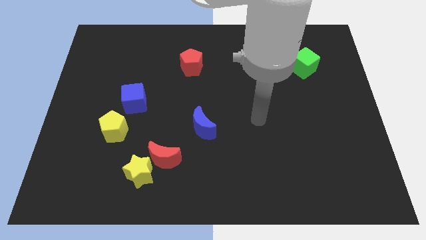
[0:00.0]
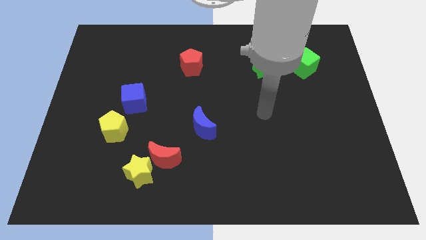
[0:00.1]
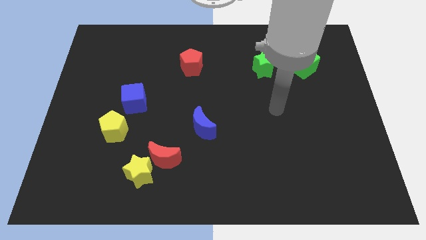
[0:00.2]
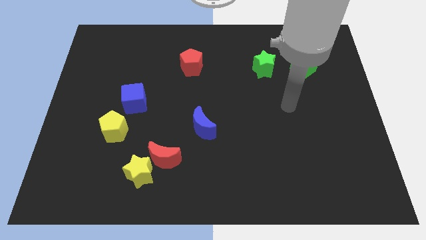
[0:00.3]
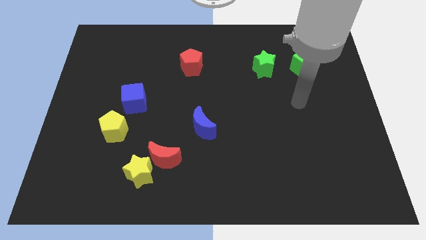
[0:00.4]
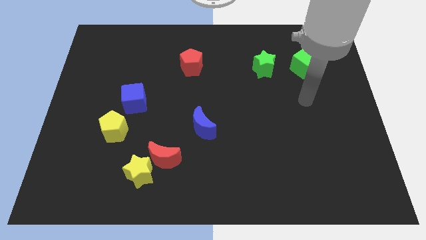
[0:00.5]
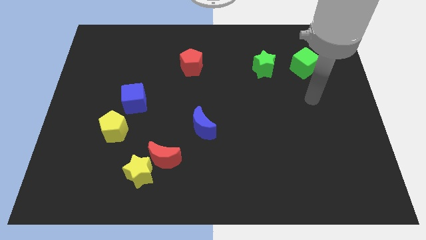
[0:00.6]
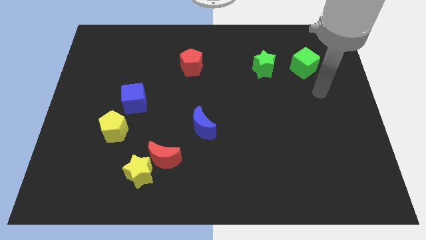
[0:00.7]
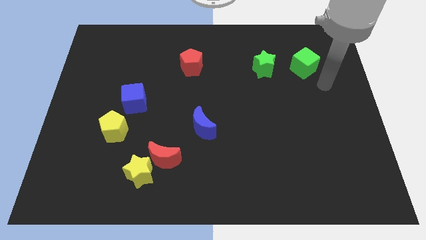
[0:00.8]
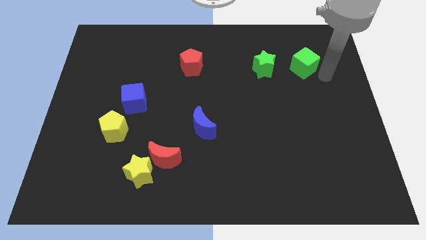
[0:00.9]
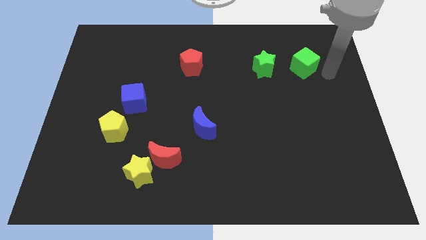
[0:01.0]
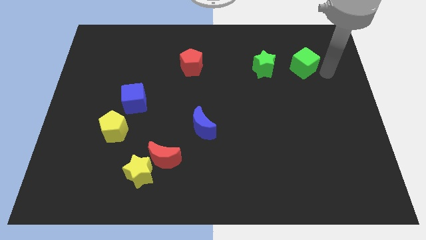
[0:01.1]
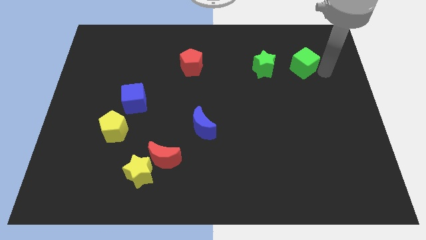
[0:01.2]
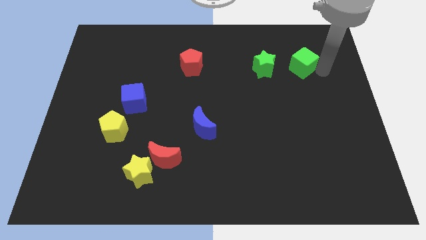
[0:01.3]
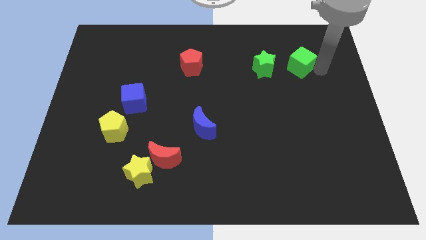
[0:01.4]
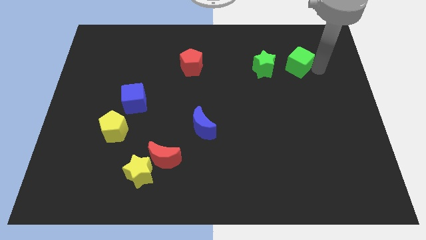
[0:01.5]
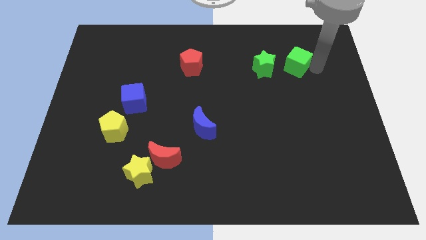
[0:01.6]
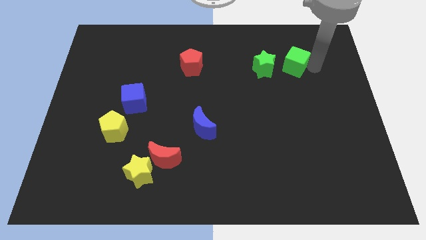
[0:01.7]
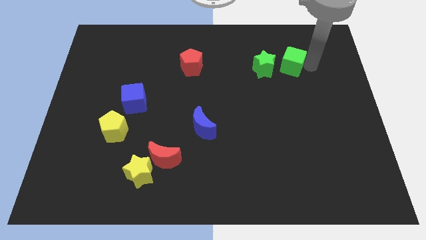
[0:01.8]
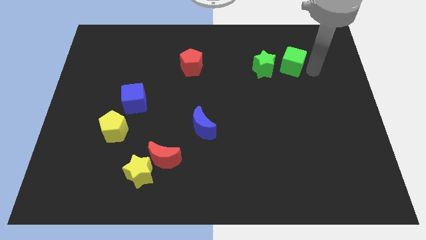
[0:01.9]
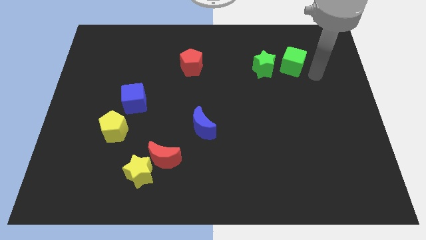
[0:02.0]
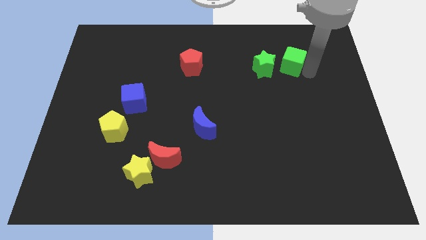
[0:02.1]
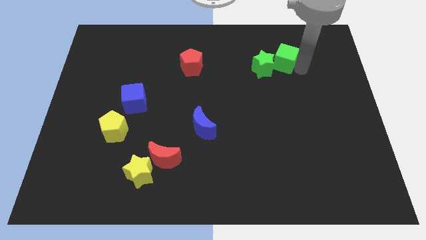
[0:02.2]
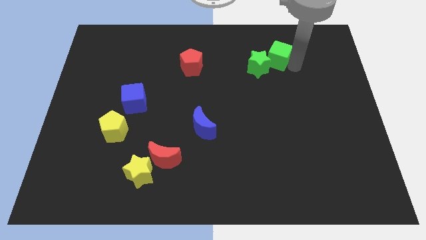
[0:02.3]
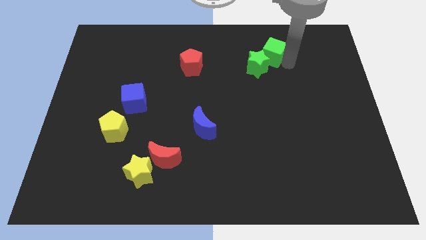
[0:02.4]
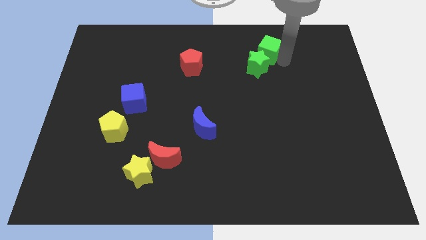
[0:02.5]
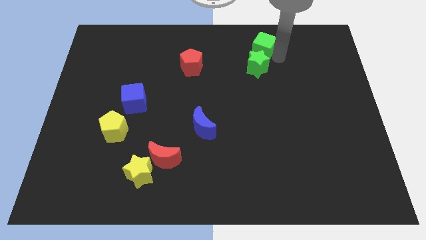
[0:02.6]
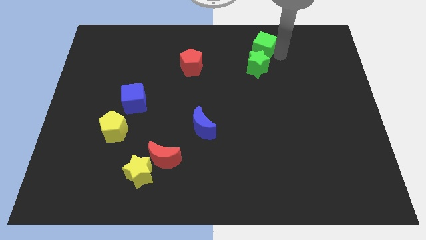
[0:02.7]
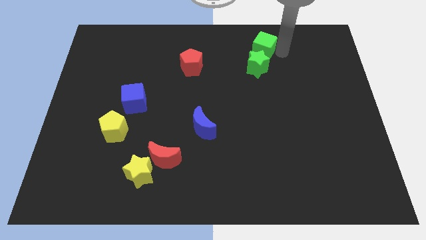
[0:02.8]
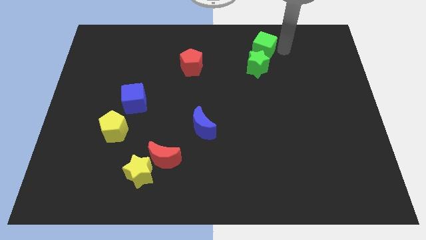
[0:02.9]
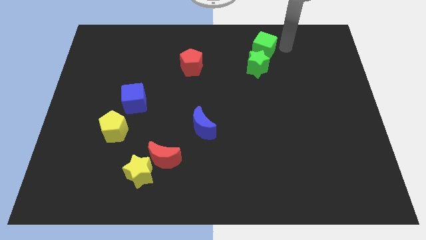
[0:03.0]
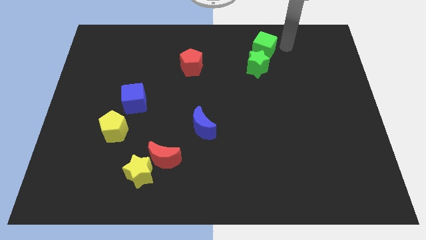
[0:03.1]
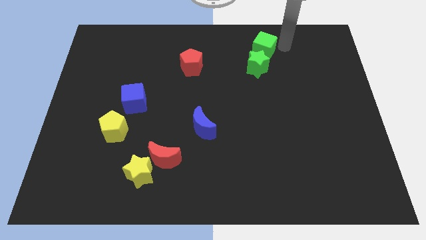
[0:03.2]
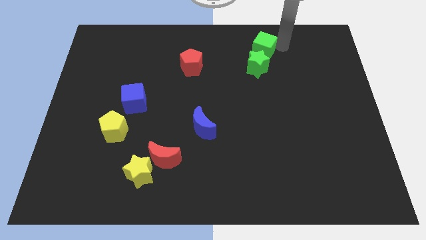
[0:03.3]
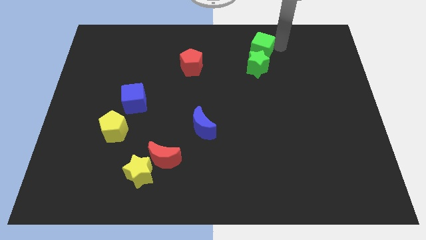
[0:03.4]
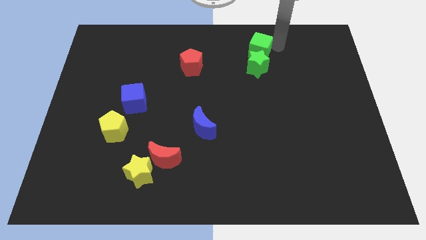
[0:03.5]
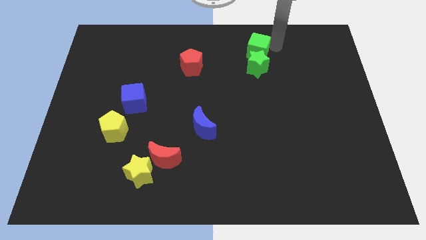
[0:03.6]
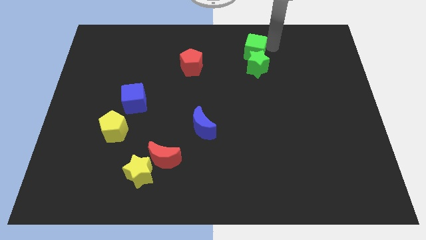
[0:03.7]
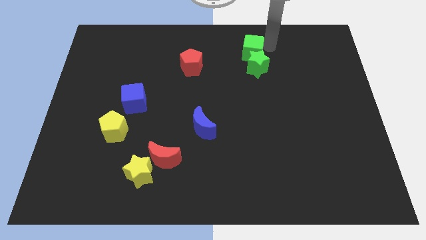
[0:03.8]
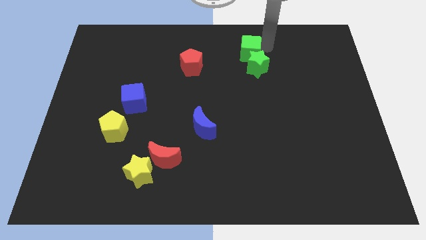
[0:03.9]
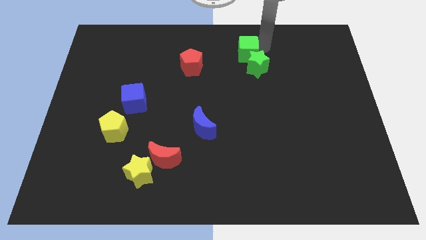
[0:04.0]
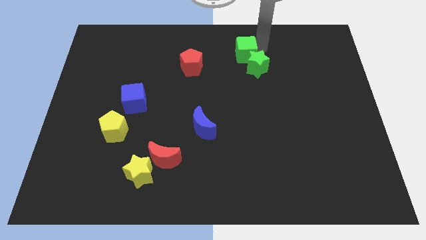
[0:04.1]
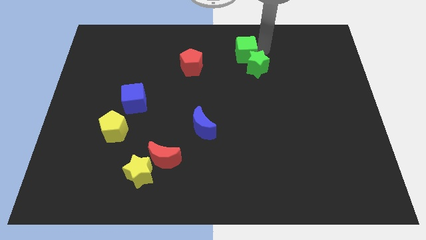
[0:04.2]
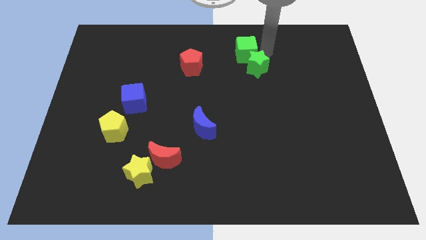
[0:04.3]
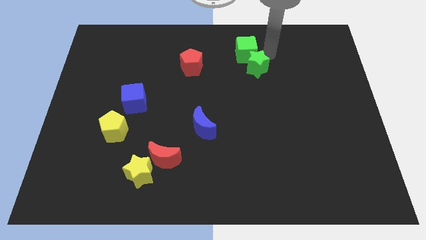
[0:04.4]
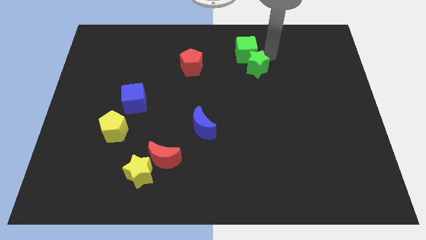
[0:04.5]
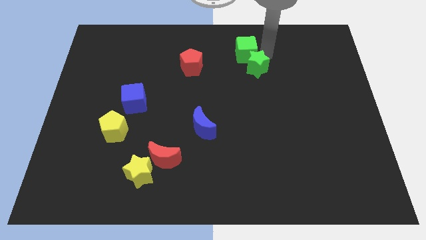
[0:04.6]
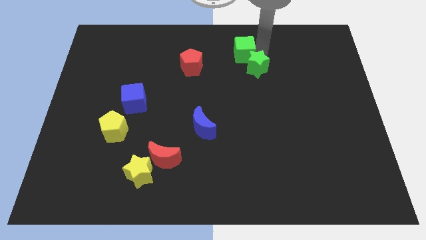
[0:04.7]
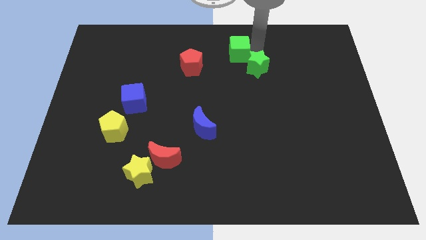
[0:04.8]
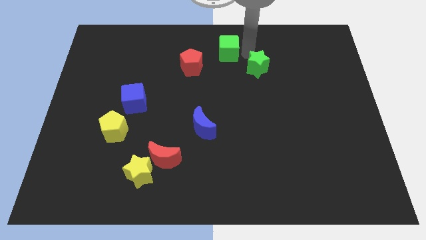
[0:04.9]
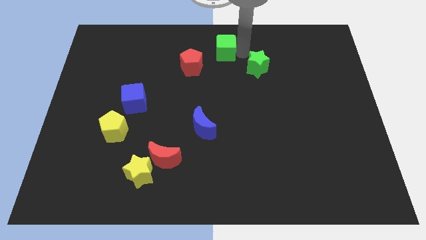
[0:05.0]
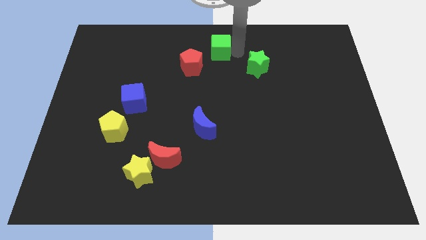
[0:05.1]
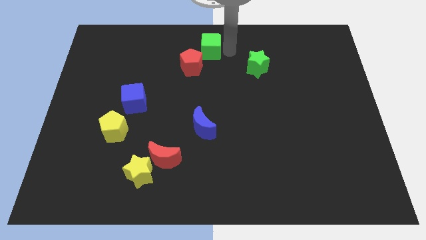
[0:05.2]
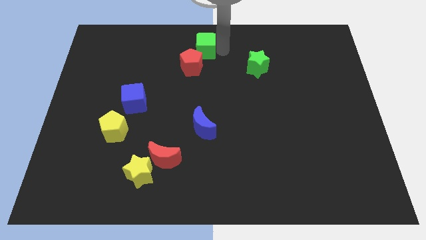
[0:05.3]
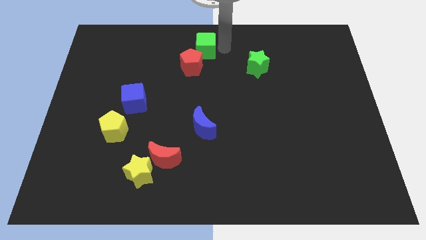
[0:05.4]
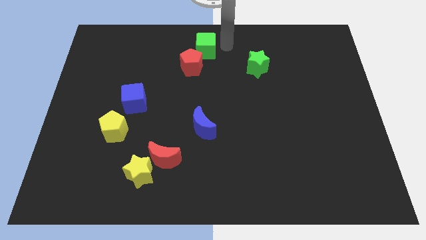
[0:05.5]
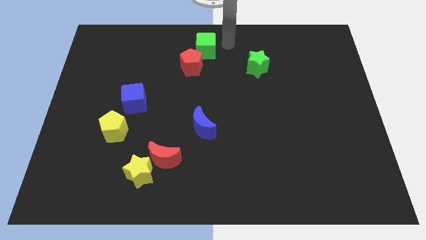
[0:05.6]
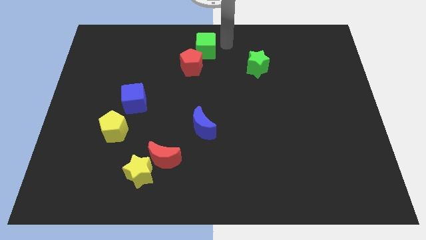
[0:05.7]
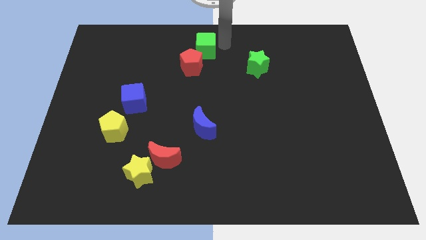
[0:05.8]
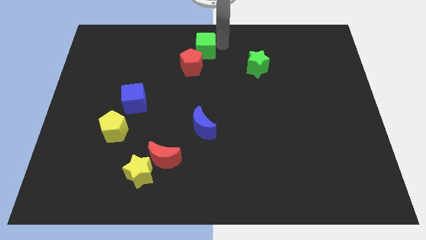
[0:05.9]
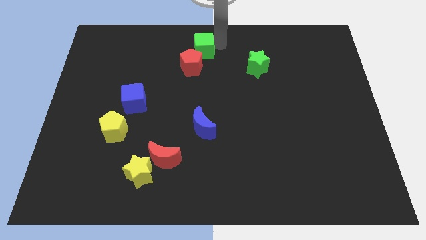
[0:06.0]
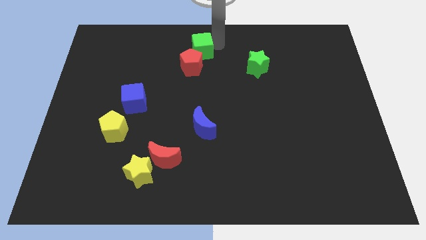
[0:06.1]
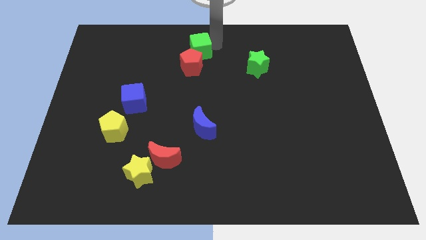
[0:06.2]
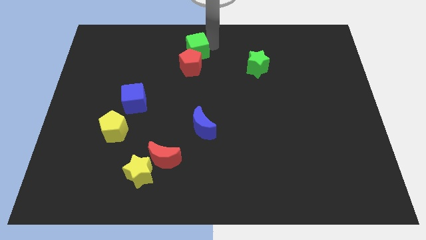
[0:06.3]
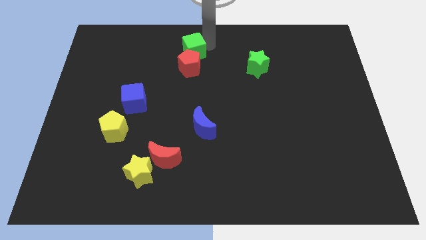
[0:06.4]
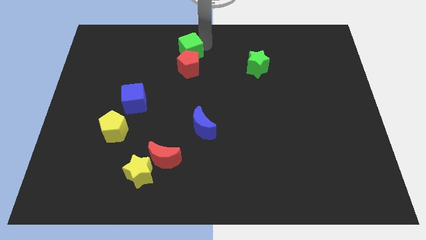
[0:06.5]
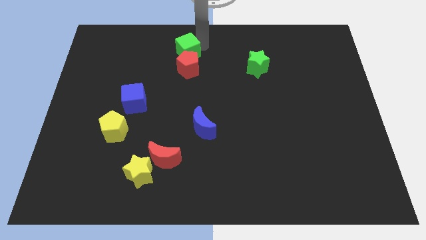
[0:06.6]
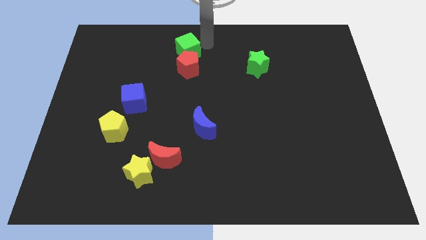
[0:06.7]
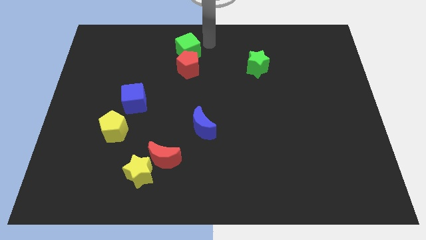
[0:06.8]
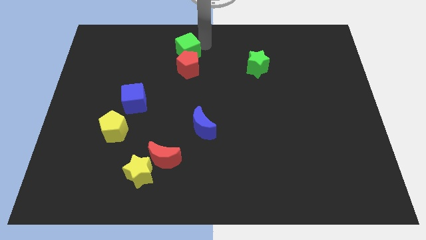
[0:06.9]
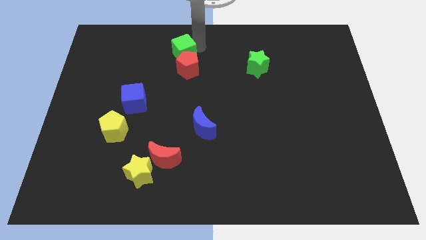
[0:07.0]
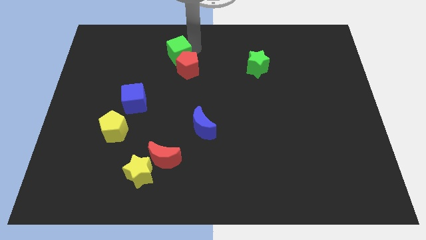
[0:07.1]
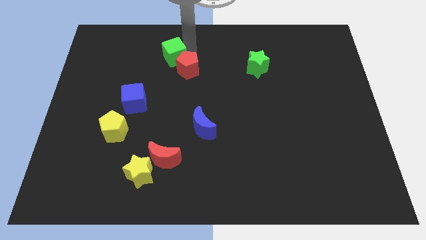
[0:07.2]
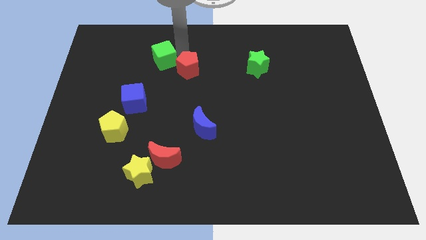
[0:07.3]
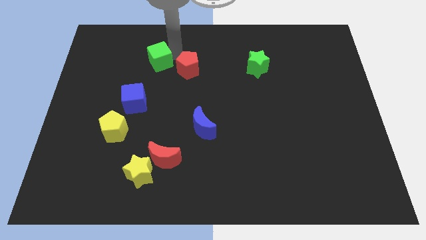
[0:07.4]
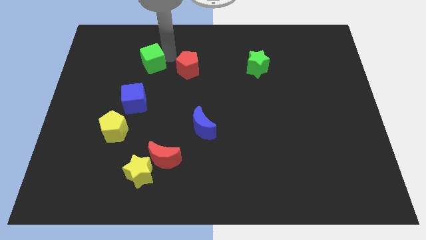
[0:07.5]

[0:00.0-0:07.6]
push the green cube above the blue cube
